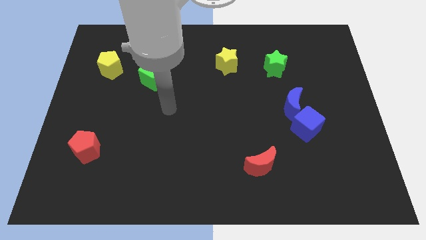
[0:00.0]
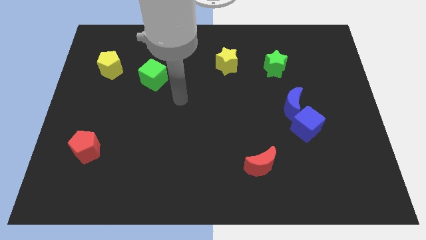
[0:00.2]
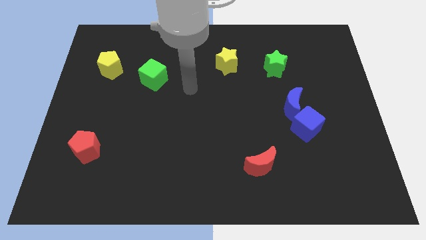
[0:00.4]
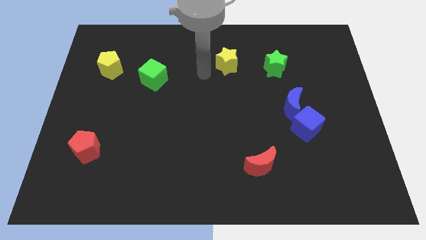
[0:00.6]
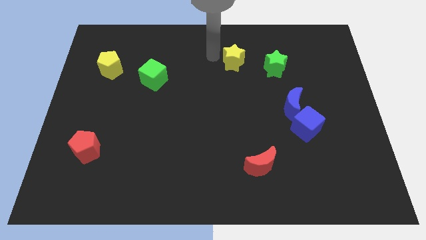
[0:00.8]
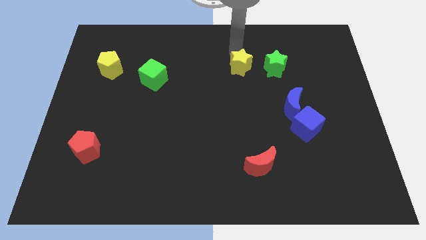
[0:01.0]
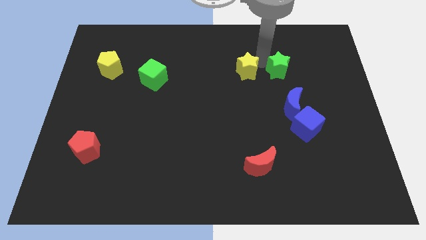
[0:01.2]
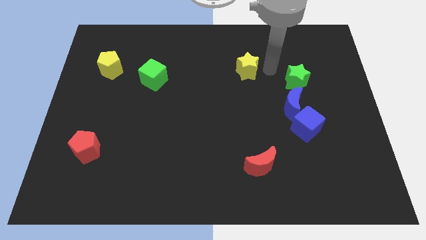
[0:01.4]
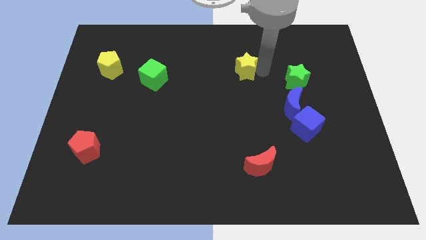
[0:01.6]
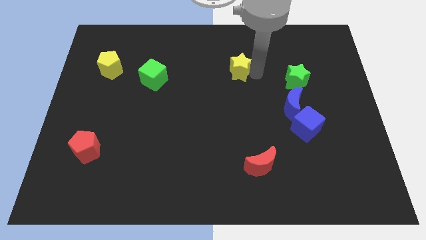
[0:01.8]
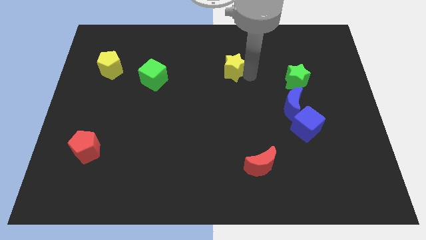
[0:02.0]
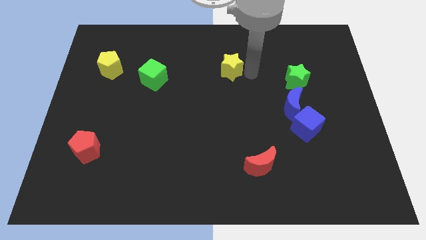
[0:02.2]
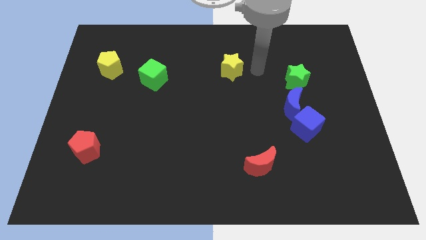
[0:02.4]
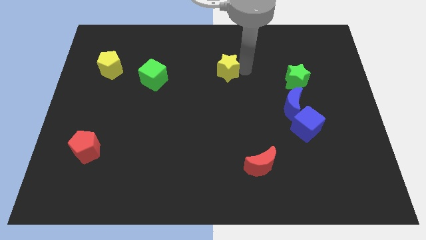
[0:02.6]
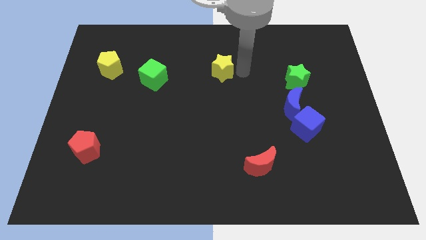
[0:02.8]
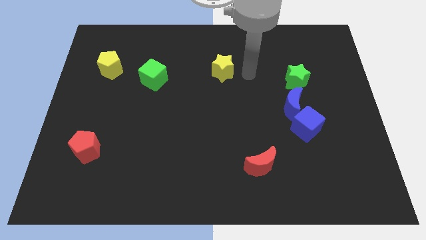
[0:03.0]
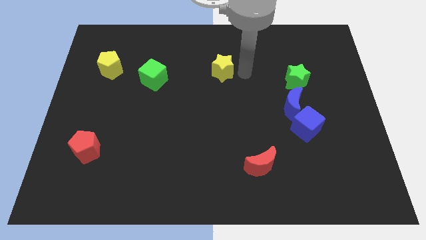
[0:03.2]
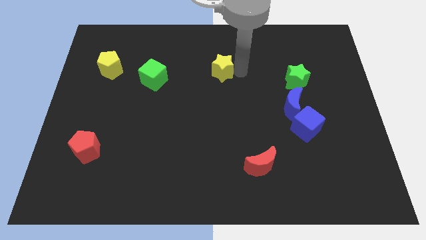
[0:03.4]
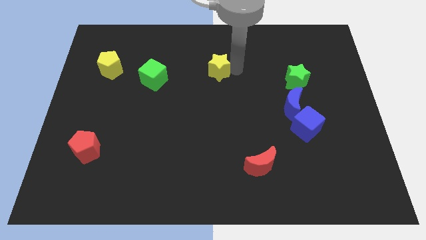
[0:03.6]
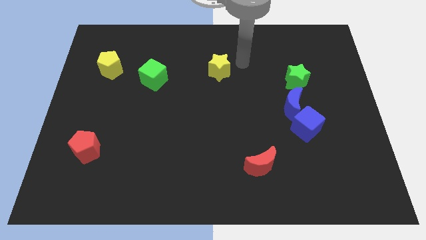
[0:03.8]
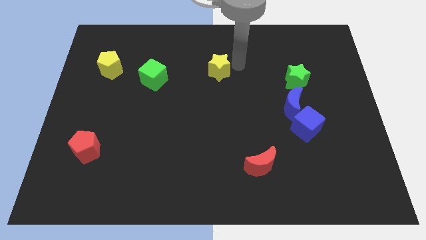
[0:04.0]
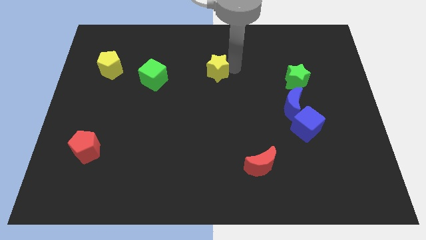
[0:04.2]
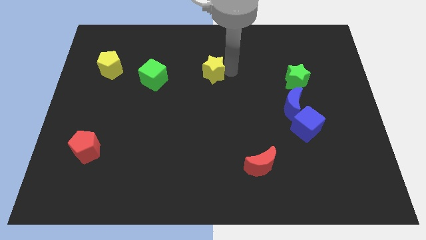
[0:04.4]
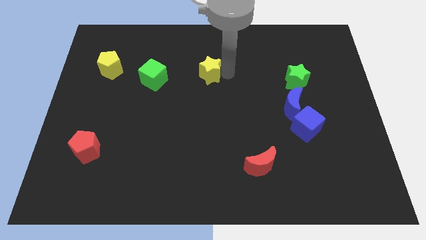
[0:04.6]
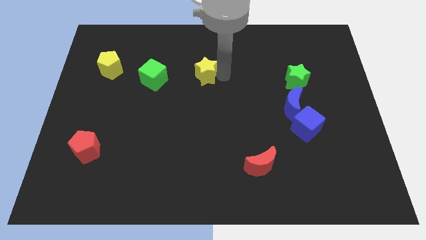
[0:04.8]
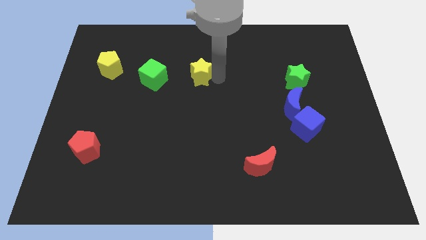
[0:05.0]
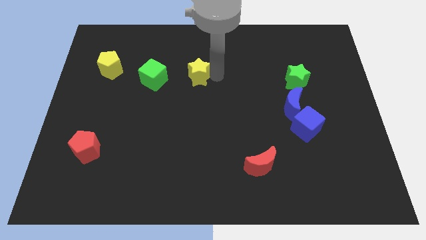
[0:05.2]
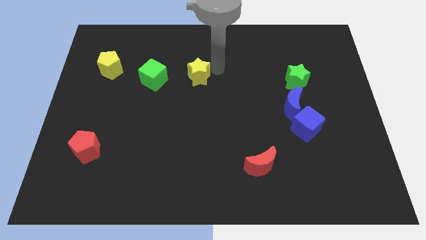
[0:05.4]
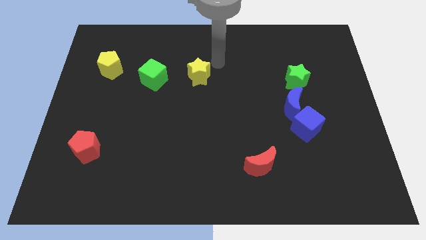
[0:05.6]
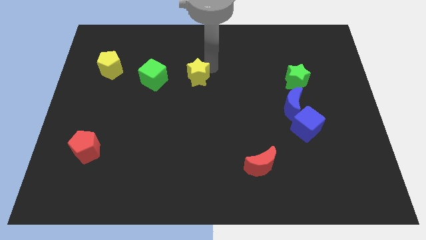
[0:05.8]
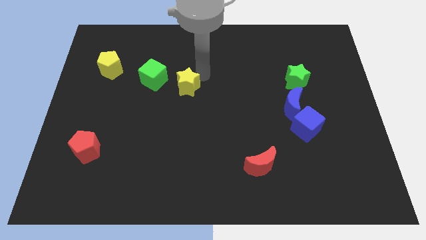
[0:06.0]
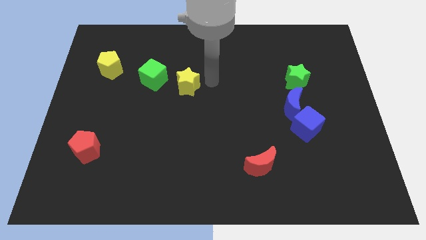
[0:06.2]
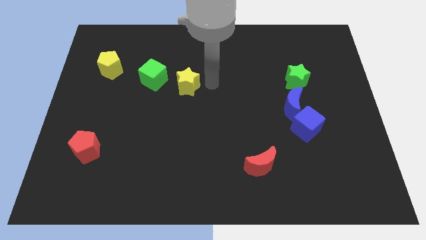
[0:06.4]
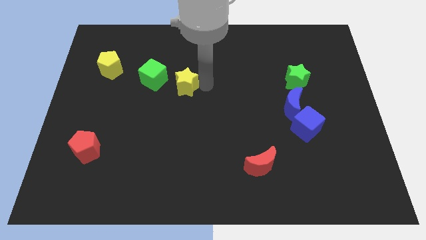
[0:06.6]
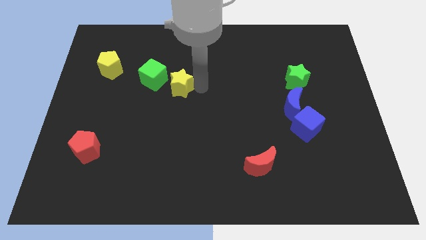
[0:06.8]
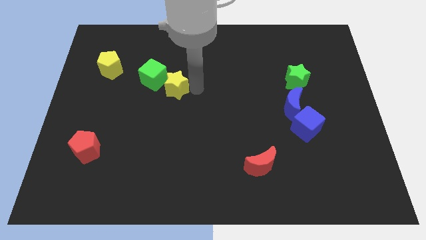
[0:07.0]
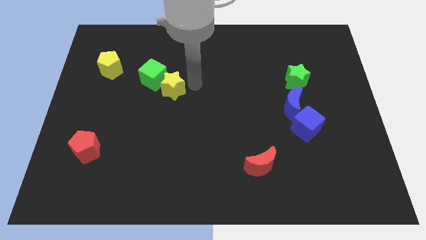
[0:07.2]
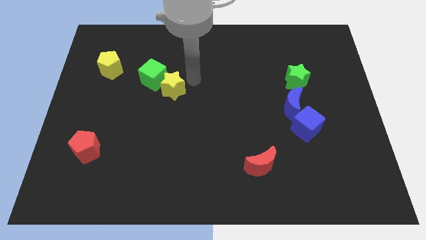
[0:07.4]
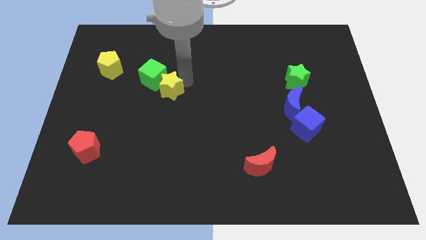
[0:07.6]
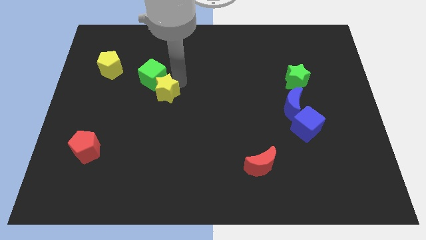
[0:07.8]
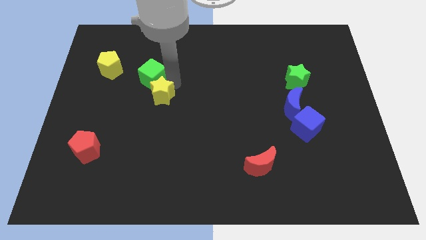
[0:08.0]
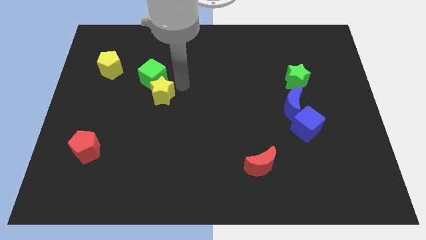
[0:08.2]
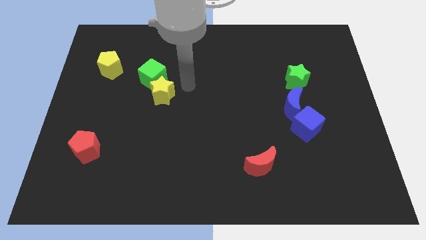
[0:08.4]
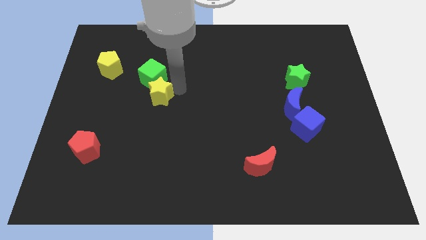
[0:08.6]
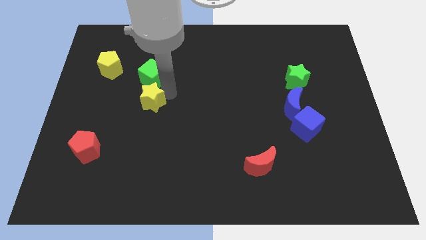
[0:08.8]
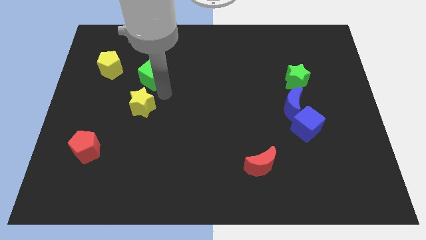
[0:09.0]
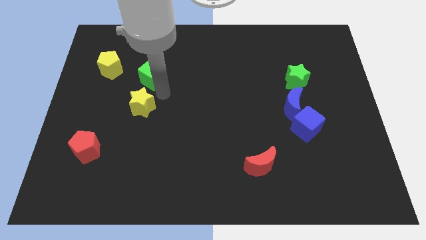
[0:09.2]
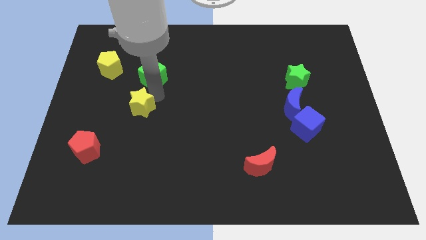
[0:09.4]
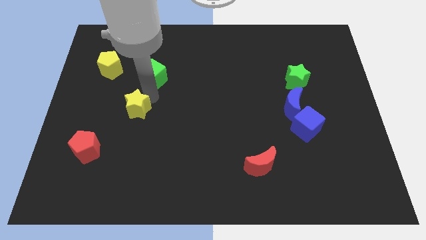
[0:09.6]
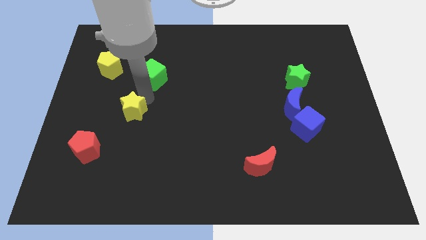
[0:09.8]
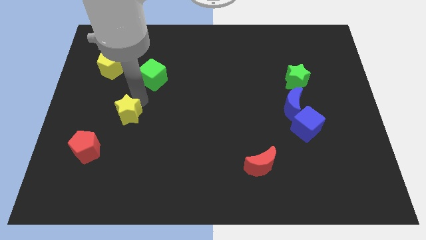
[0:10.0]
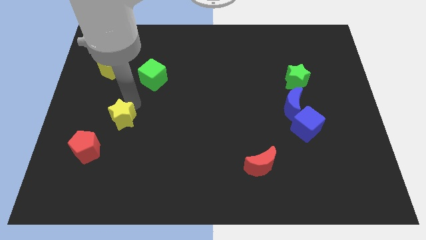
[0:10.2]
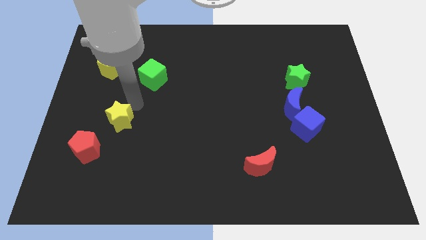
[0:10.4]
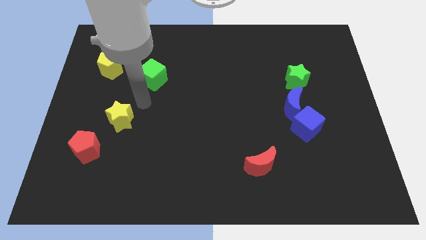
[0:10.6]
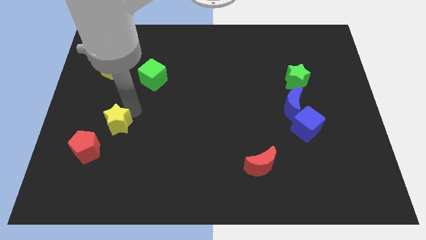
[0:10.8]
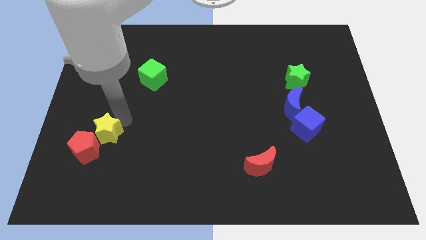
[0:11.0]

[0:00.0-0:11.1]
put the yellow star to the red pentagon

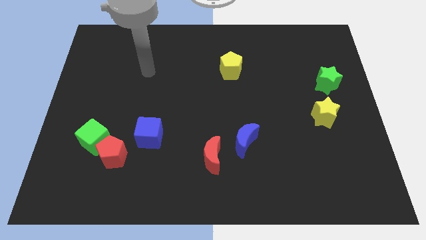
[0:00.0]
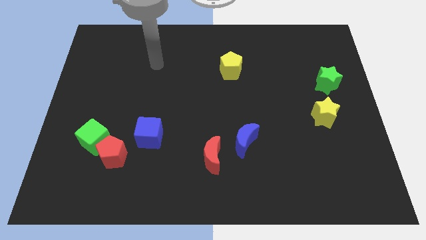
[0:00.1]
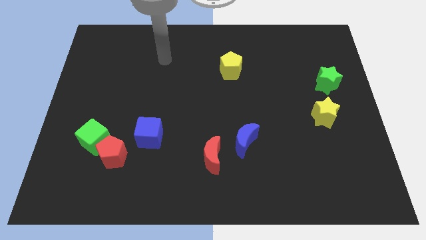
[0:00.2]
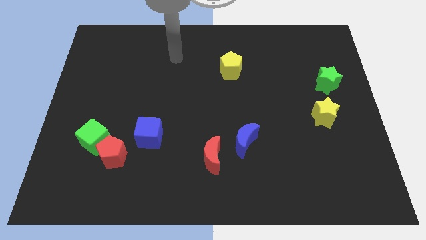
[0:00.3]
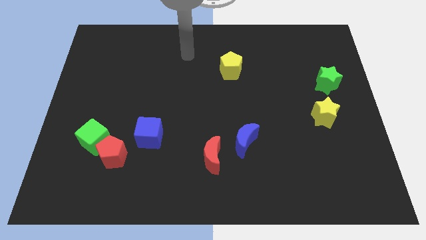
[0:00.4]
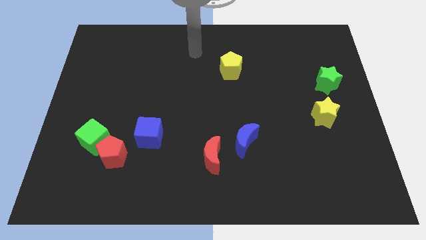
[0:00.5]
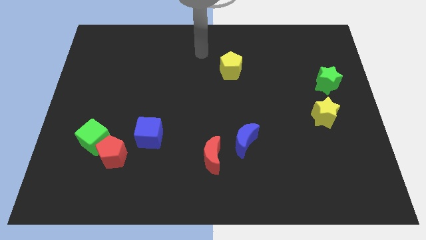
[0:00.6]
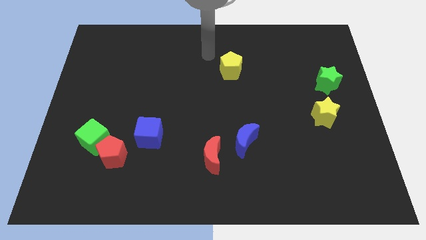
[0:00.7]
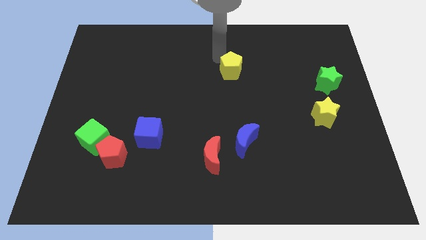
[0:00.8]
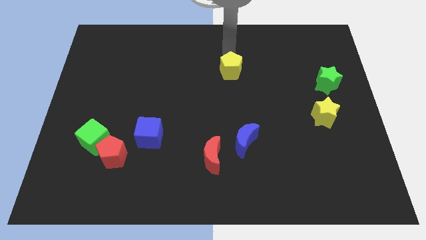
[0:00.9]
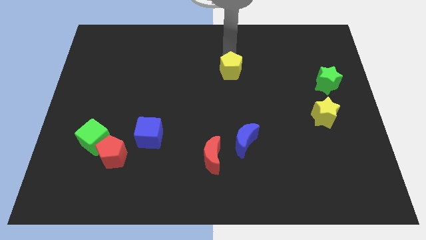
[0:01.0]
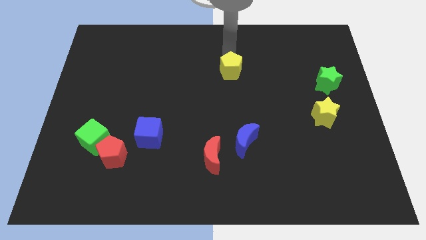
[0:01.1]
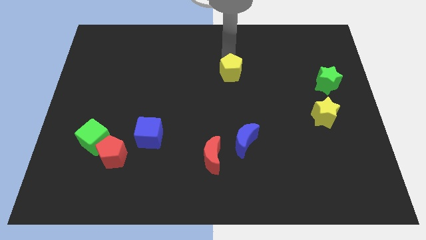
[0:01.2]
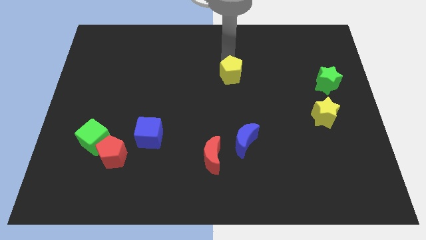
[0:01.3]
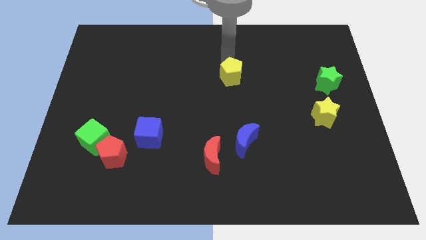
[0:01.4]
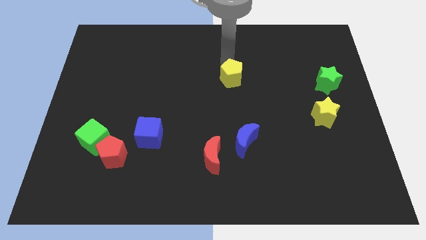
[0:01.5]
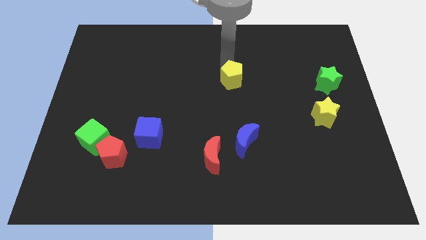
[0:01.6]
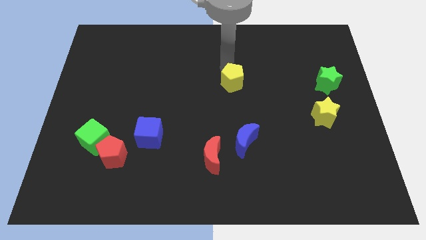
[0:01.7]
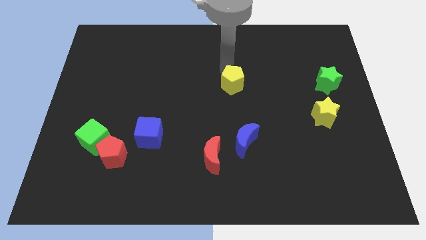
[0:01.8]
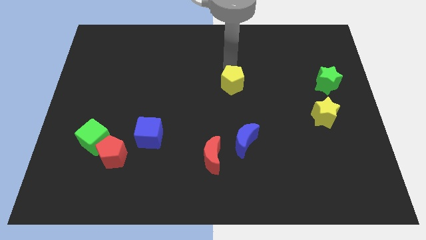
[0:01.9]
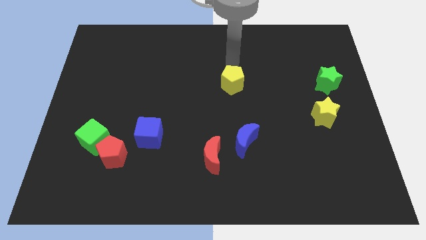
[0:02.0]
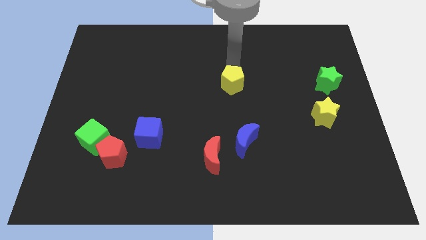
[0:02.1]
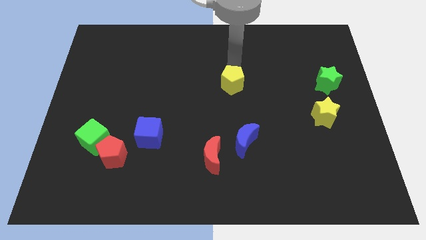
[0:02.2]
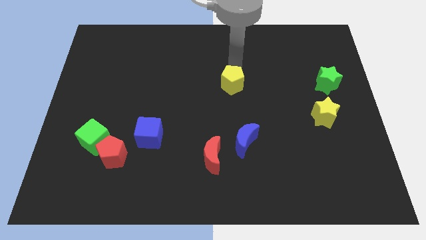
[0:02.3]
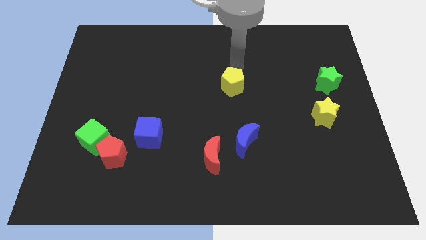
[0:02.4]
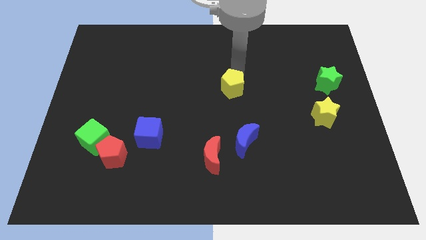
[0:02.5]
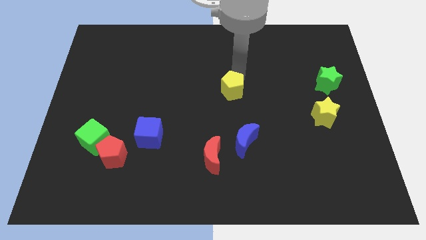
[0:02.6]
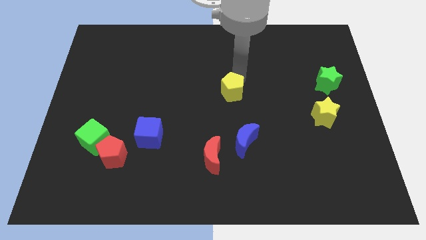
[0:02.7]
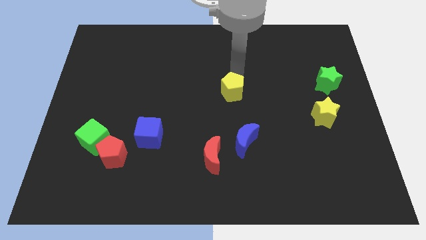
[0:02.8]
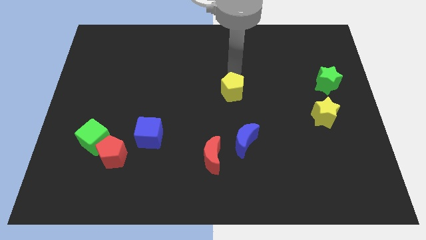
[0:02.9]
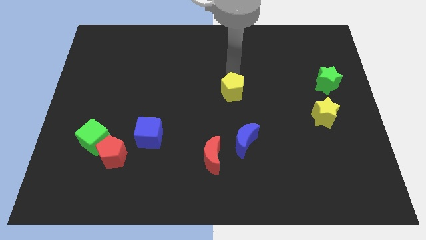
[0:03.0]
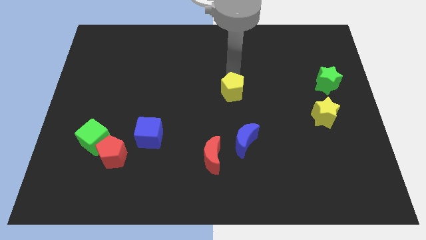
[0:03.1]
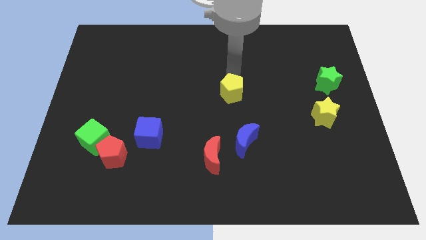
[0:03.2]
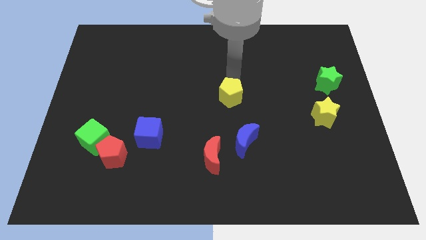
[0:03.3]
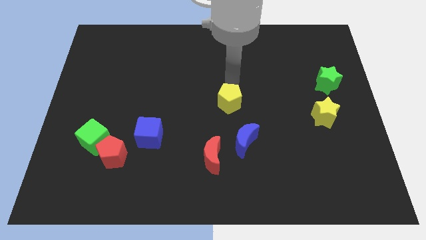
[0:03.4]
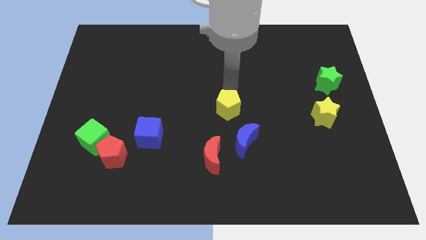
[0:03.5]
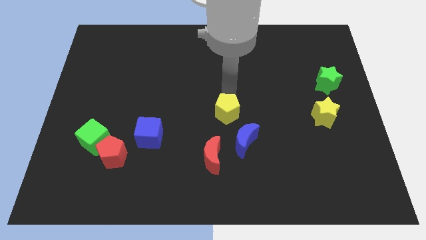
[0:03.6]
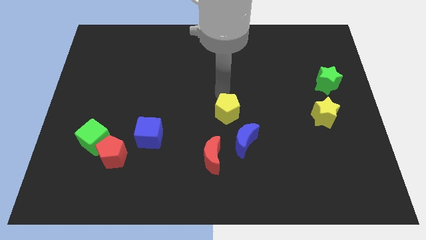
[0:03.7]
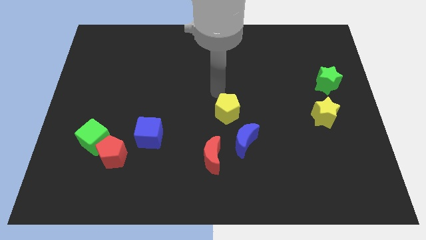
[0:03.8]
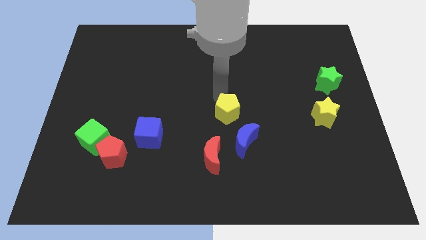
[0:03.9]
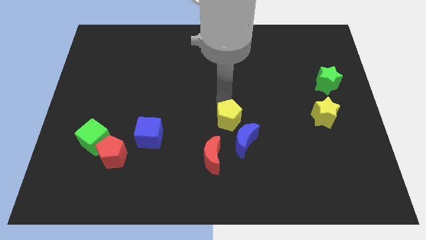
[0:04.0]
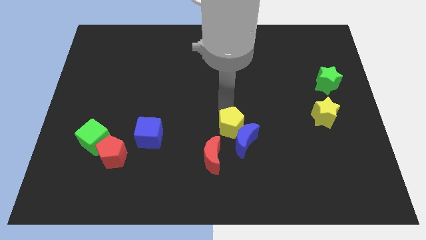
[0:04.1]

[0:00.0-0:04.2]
push the yellow pentagon to the blue moon
